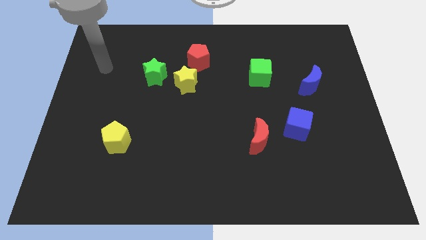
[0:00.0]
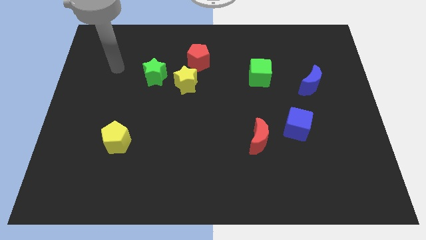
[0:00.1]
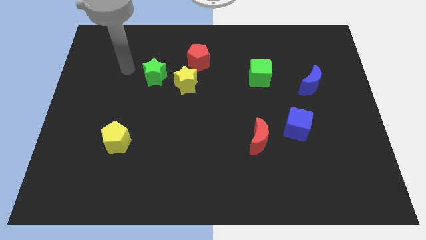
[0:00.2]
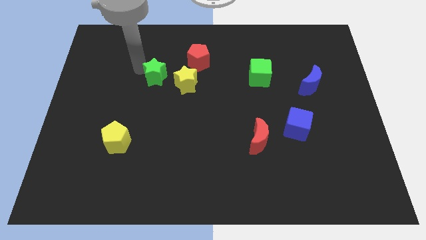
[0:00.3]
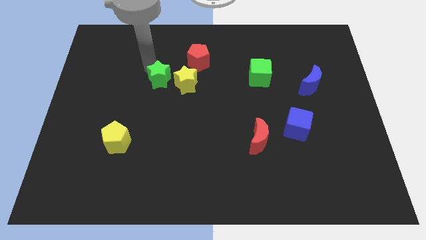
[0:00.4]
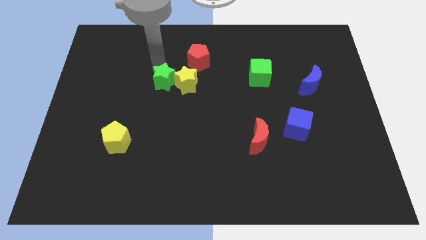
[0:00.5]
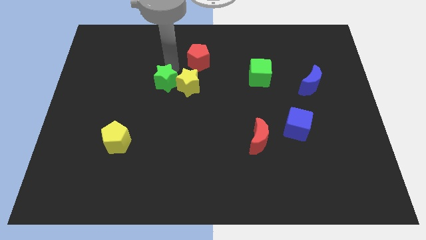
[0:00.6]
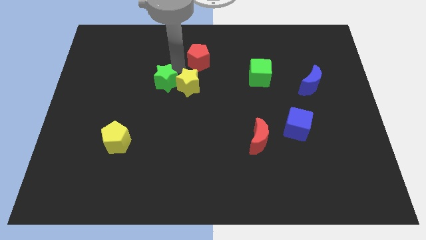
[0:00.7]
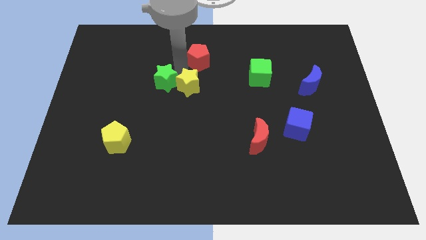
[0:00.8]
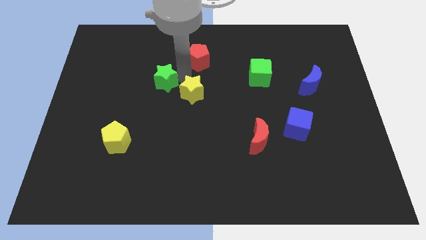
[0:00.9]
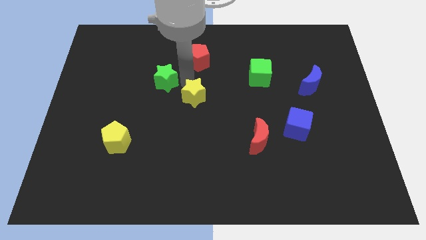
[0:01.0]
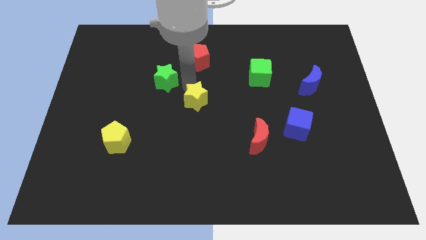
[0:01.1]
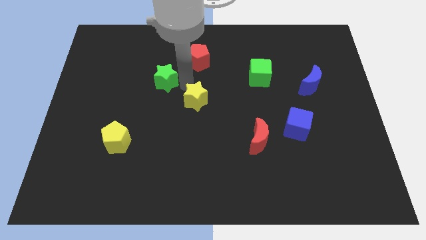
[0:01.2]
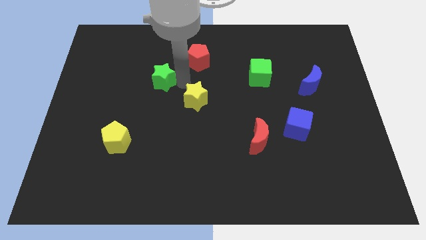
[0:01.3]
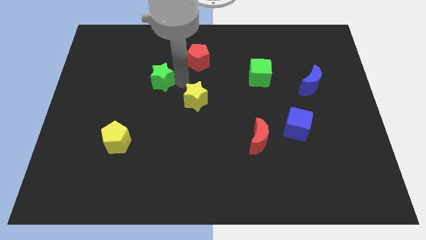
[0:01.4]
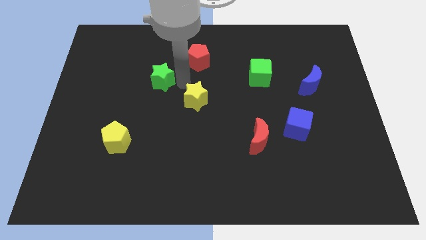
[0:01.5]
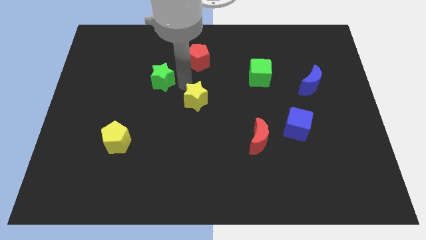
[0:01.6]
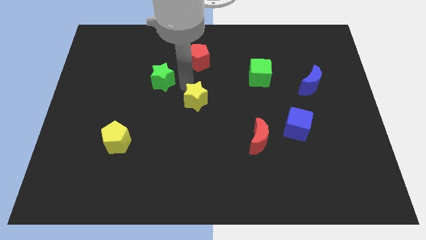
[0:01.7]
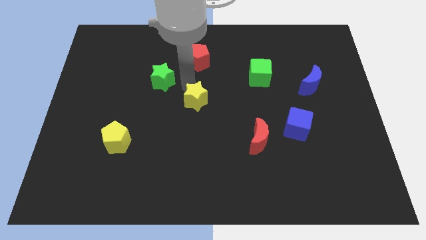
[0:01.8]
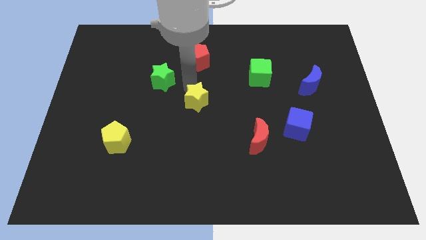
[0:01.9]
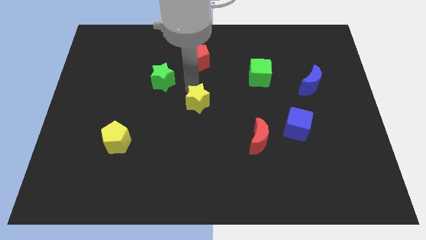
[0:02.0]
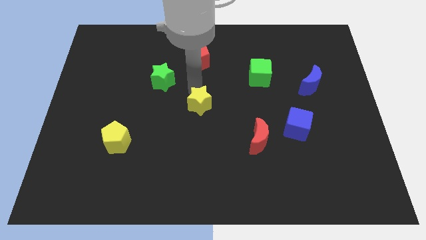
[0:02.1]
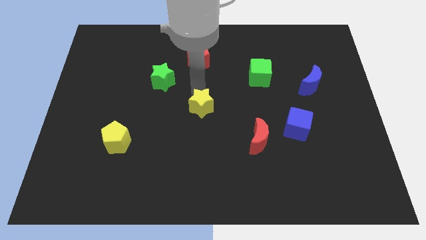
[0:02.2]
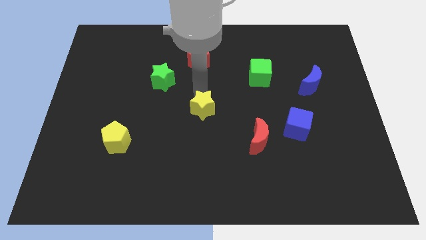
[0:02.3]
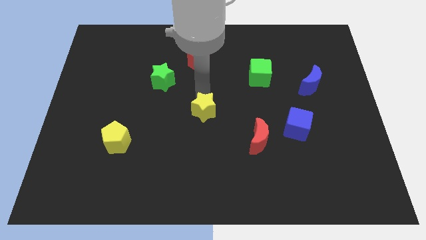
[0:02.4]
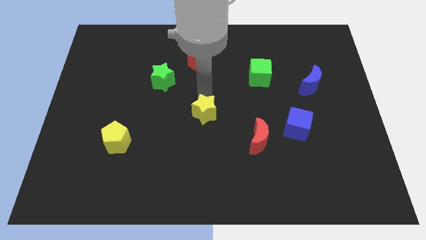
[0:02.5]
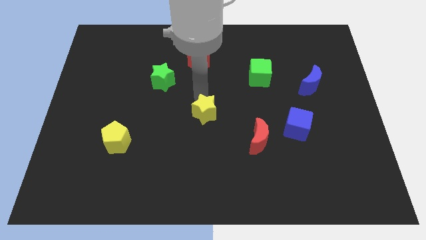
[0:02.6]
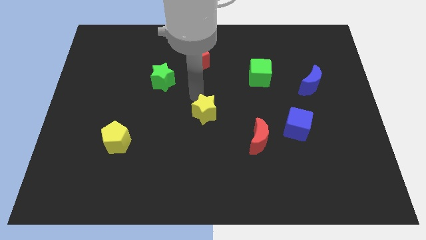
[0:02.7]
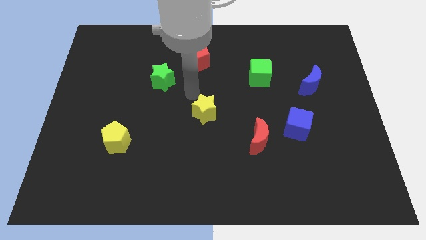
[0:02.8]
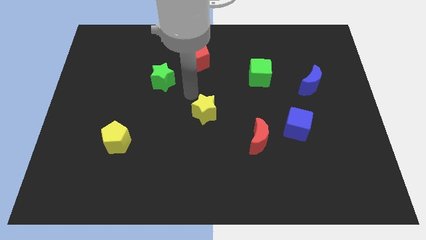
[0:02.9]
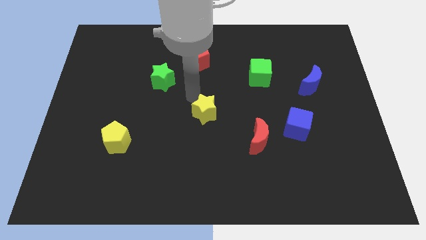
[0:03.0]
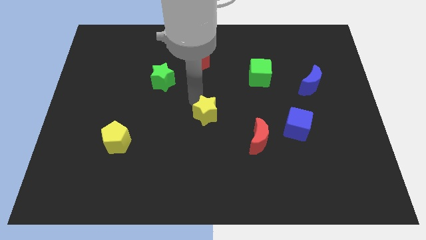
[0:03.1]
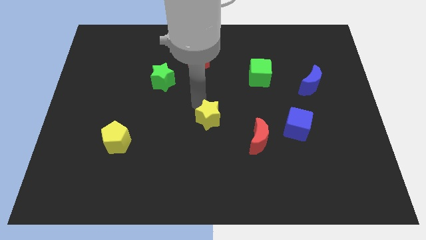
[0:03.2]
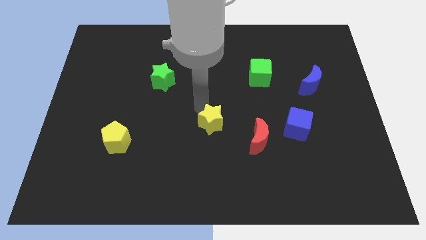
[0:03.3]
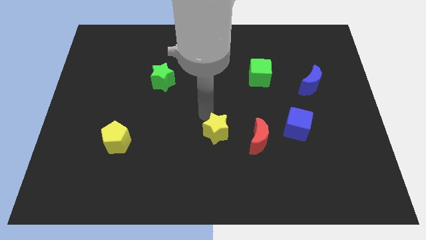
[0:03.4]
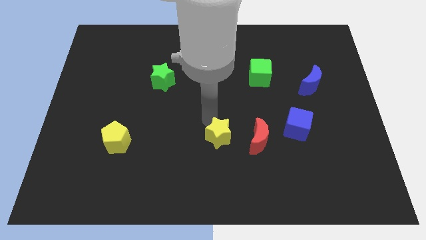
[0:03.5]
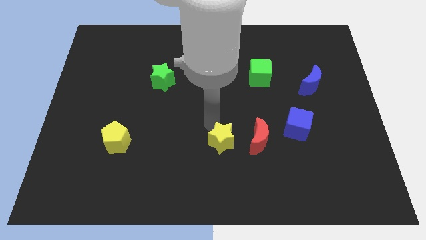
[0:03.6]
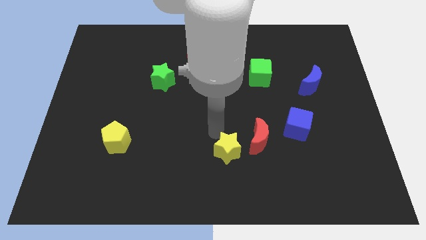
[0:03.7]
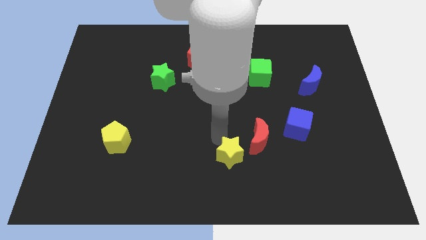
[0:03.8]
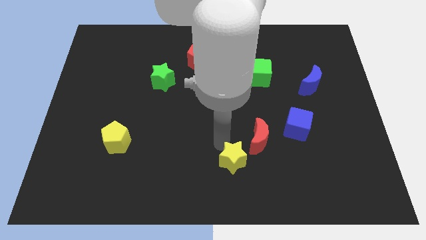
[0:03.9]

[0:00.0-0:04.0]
move the yellow star down and then right

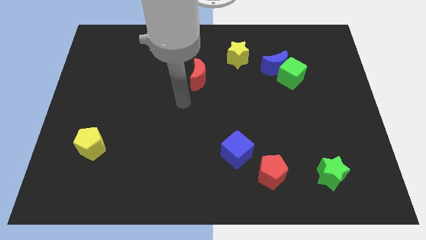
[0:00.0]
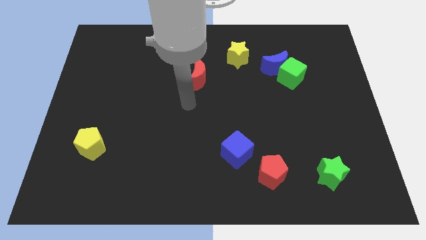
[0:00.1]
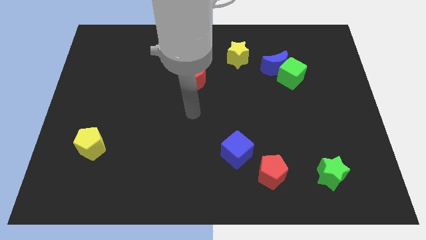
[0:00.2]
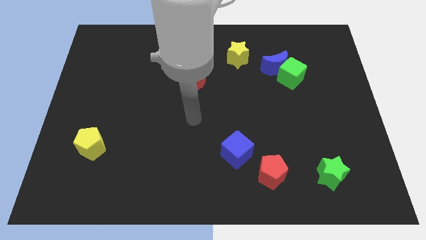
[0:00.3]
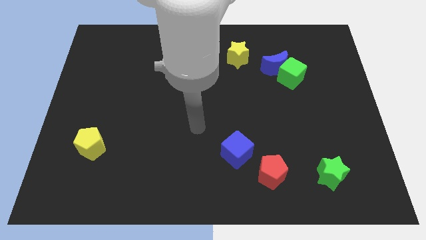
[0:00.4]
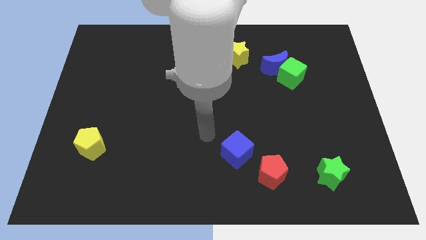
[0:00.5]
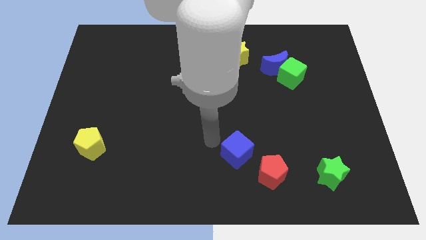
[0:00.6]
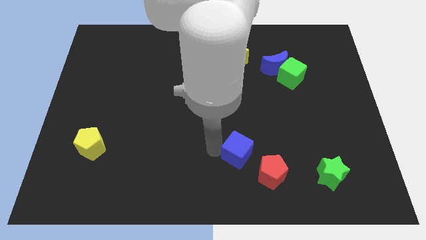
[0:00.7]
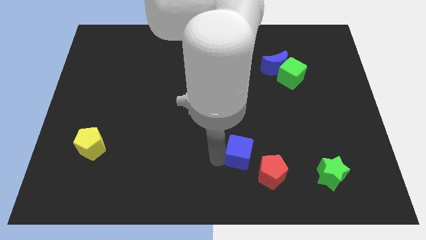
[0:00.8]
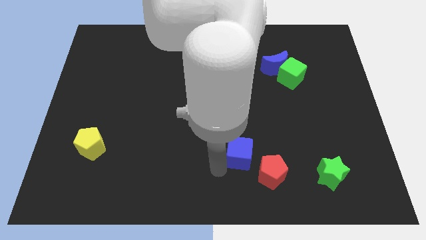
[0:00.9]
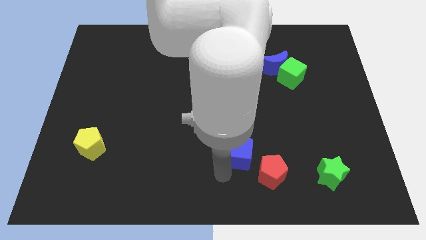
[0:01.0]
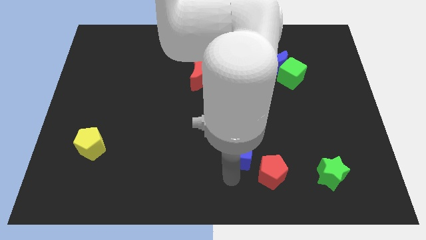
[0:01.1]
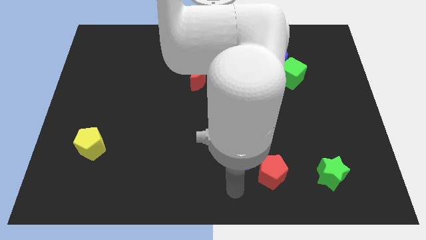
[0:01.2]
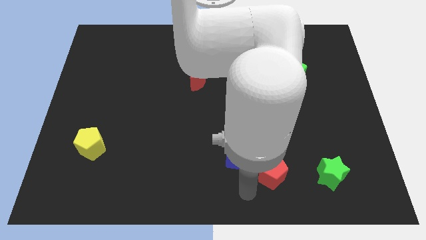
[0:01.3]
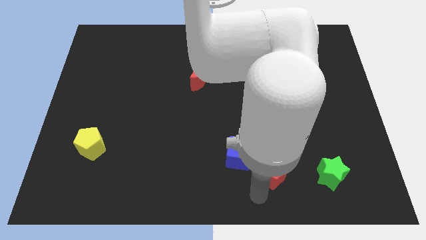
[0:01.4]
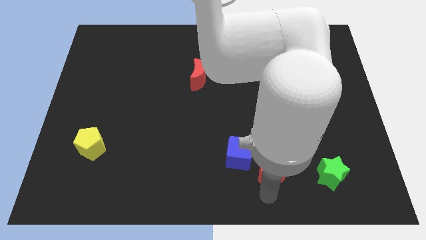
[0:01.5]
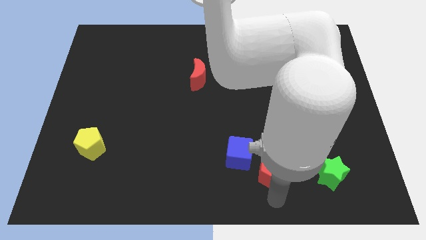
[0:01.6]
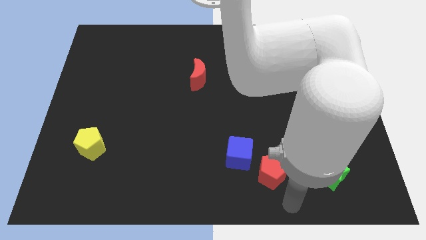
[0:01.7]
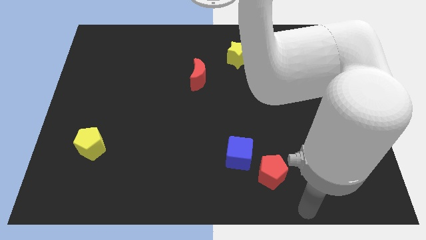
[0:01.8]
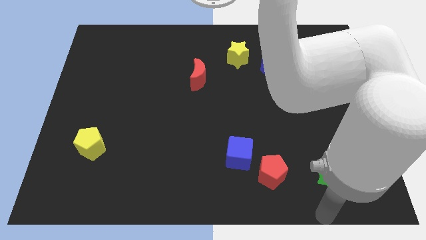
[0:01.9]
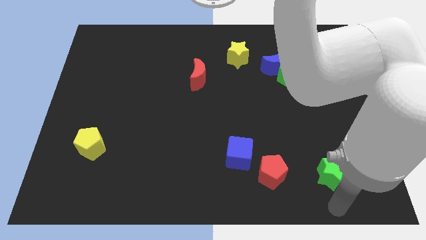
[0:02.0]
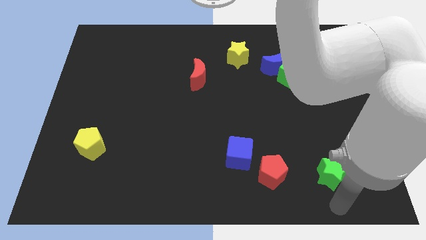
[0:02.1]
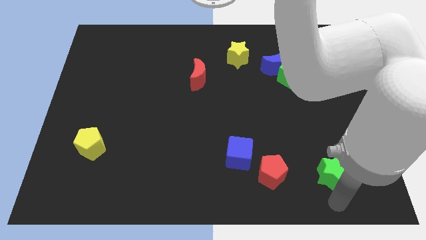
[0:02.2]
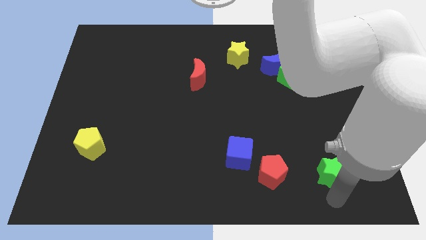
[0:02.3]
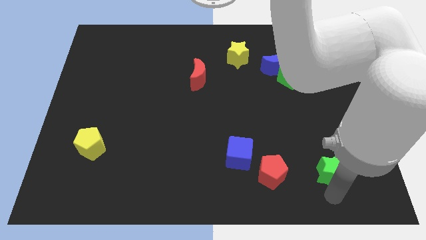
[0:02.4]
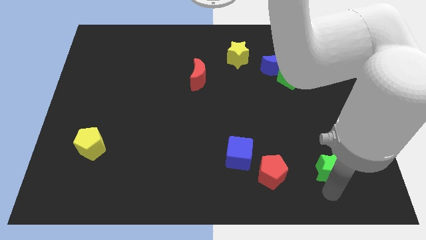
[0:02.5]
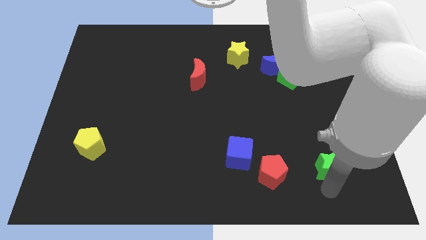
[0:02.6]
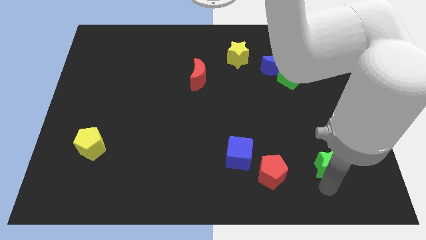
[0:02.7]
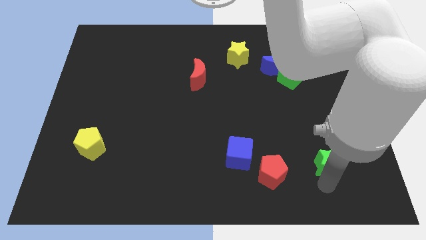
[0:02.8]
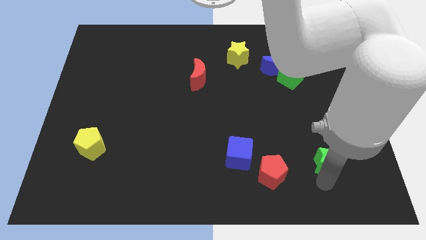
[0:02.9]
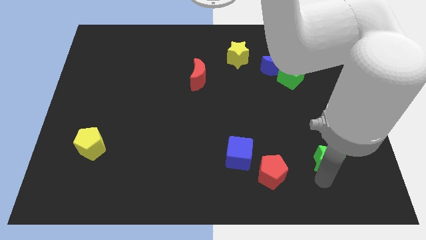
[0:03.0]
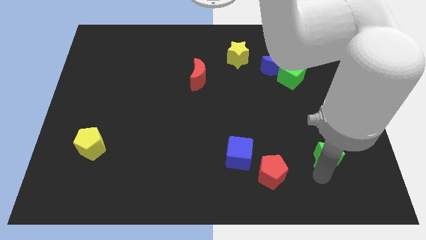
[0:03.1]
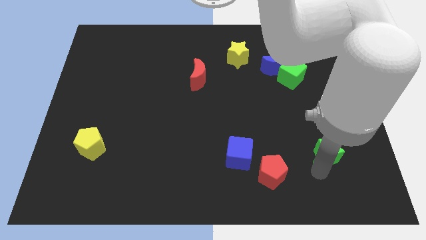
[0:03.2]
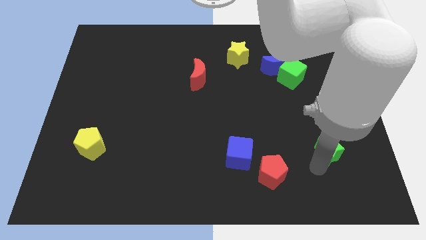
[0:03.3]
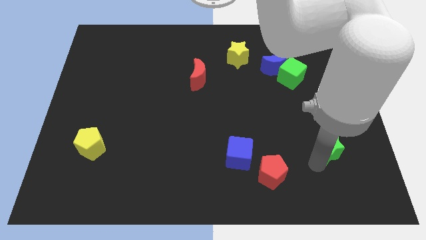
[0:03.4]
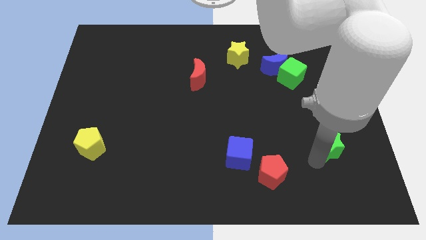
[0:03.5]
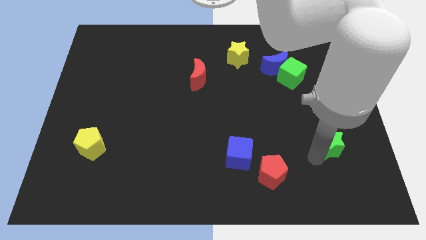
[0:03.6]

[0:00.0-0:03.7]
move the green star a little up
